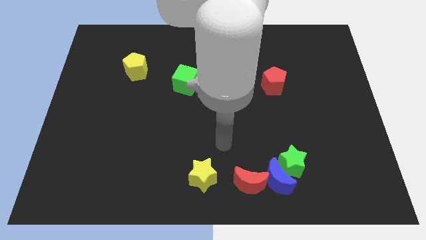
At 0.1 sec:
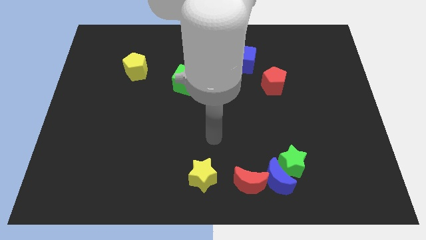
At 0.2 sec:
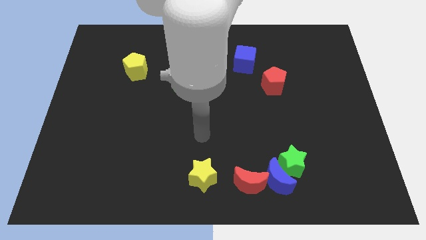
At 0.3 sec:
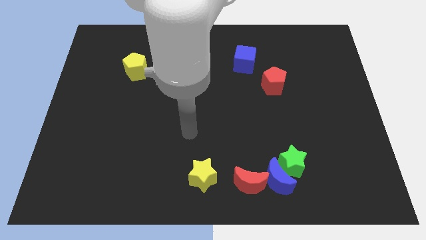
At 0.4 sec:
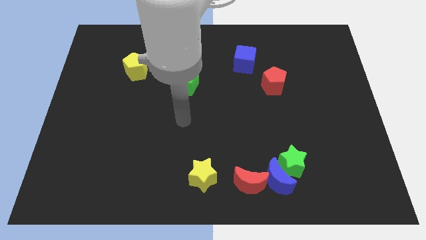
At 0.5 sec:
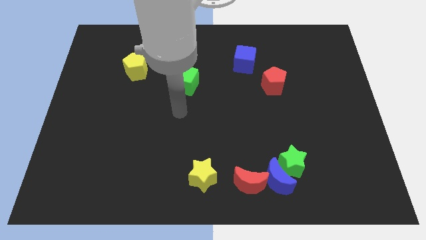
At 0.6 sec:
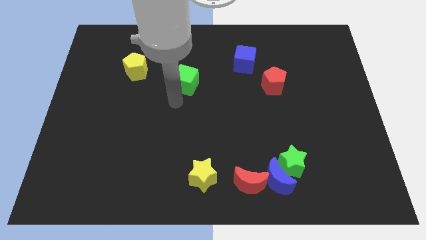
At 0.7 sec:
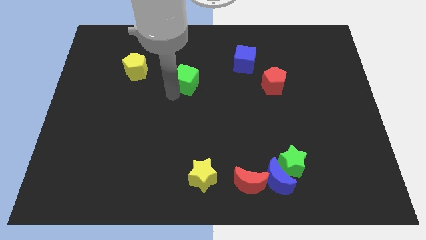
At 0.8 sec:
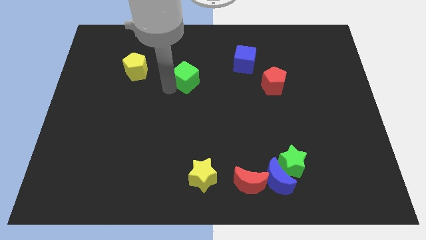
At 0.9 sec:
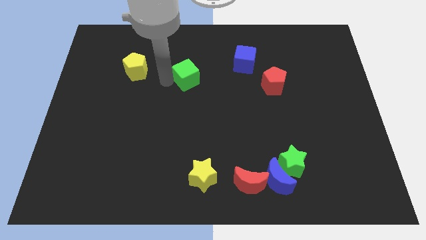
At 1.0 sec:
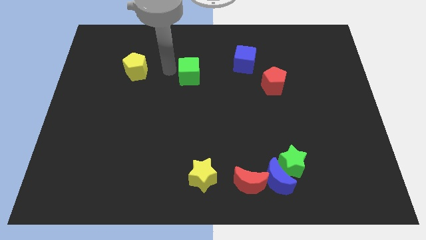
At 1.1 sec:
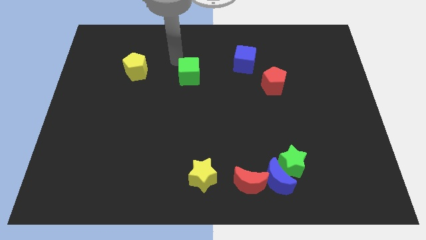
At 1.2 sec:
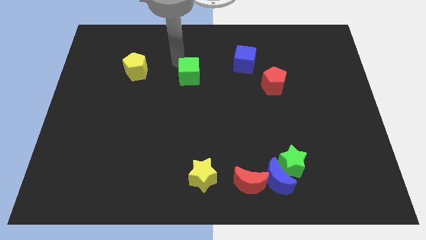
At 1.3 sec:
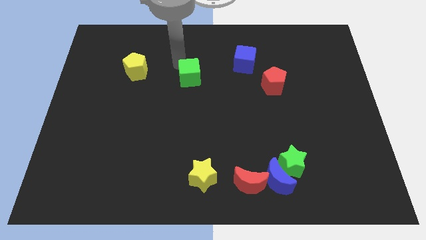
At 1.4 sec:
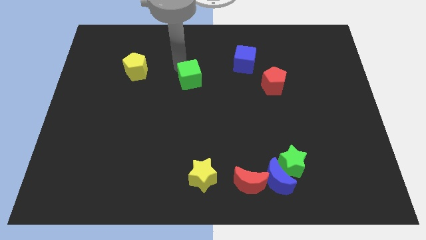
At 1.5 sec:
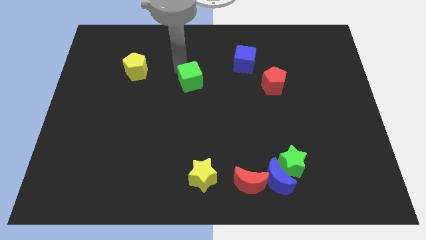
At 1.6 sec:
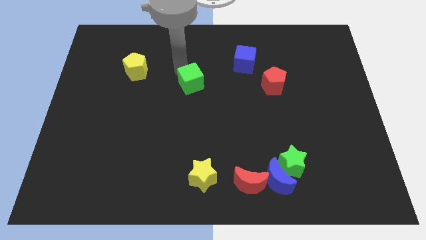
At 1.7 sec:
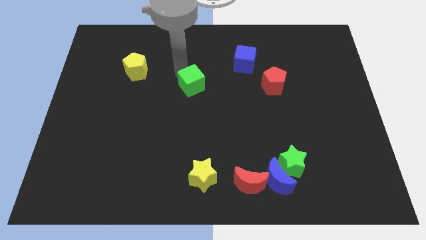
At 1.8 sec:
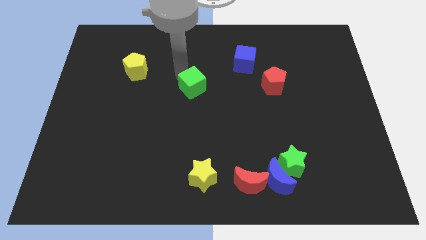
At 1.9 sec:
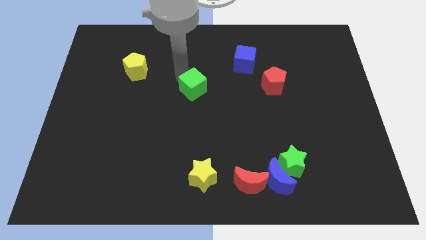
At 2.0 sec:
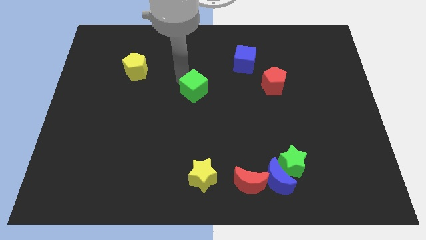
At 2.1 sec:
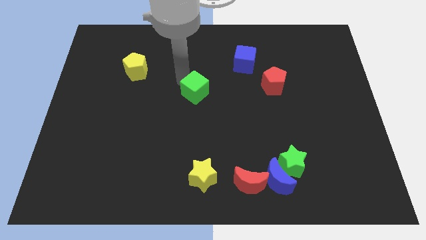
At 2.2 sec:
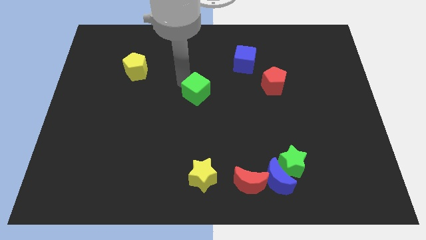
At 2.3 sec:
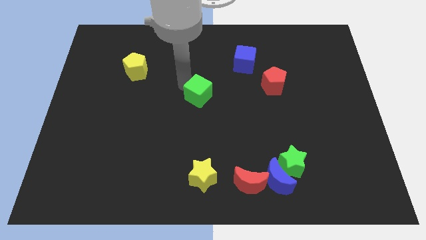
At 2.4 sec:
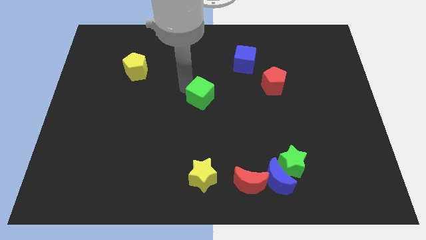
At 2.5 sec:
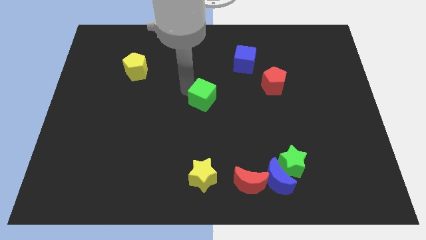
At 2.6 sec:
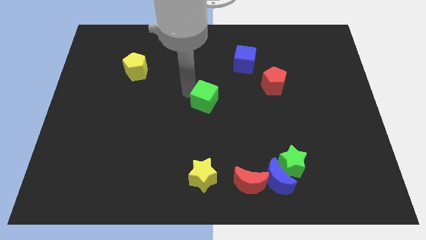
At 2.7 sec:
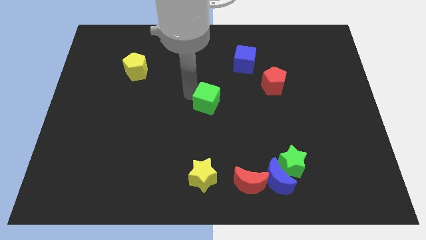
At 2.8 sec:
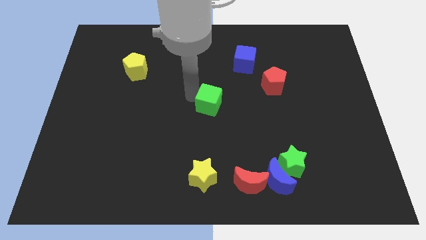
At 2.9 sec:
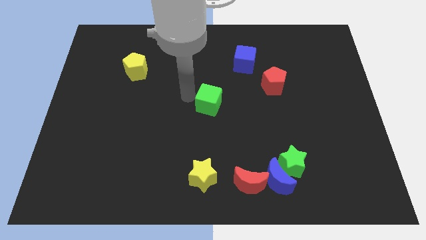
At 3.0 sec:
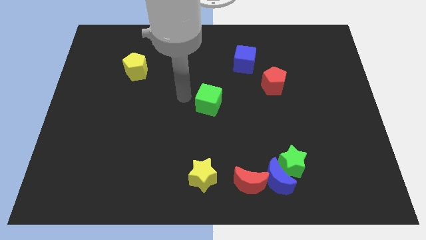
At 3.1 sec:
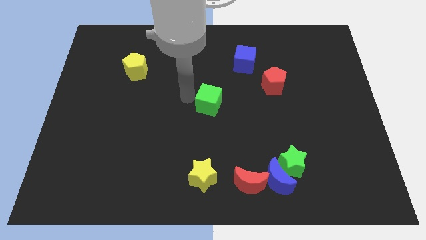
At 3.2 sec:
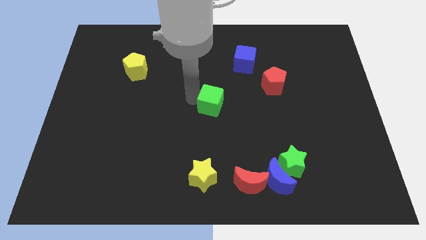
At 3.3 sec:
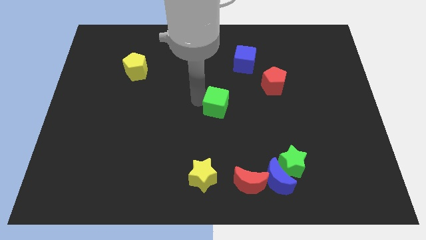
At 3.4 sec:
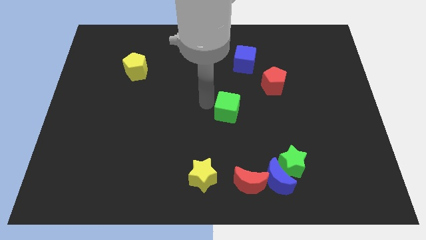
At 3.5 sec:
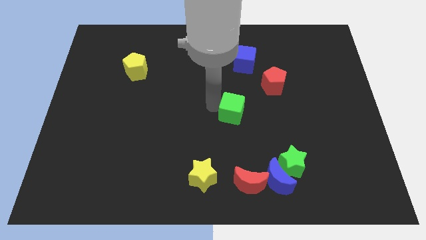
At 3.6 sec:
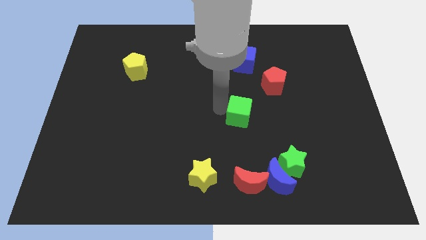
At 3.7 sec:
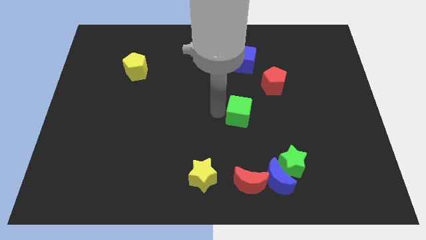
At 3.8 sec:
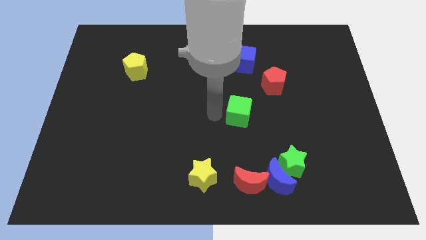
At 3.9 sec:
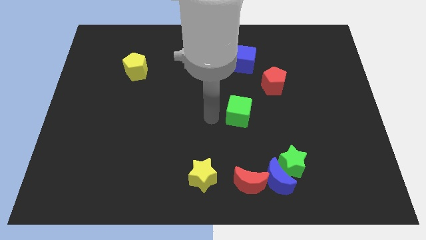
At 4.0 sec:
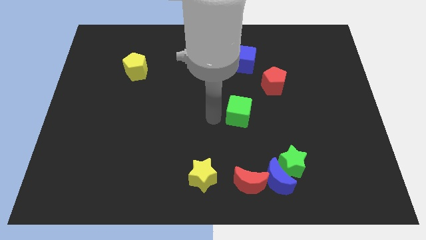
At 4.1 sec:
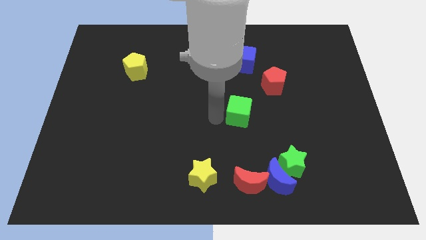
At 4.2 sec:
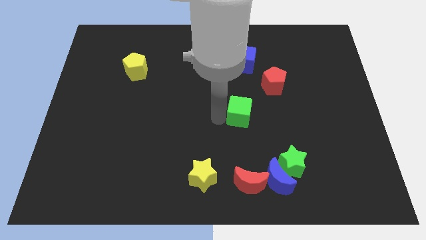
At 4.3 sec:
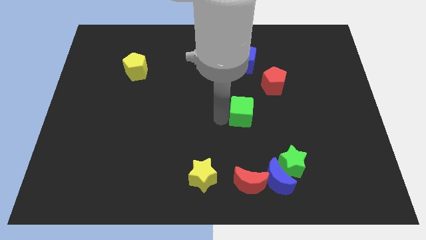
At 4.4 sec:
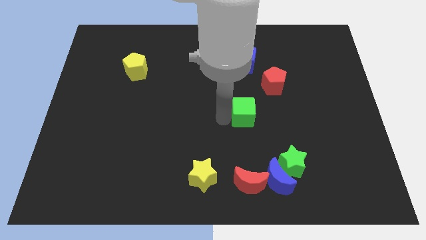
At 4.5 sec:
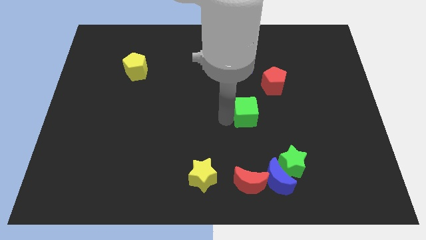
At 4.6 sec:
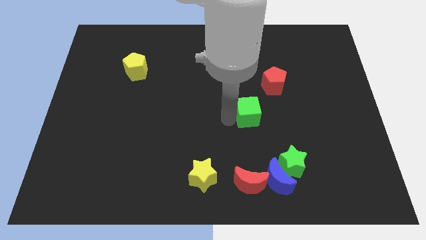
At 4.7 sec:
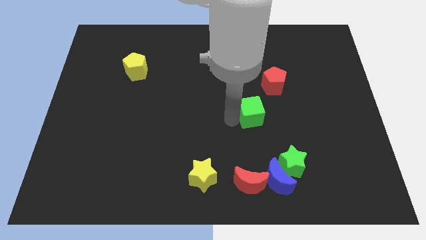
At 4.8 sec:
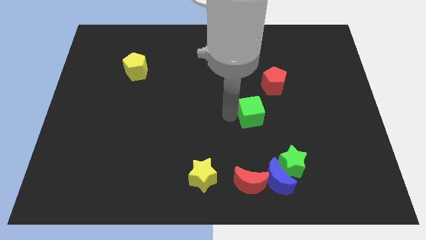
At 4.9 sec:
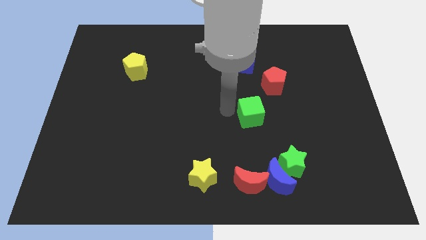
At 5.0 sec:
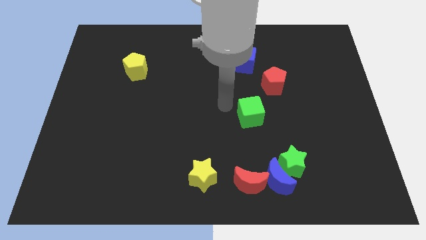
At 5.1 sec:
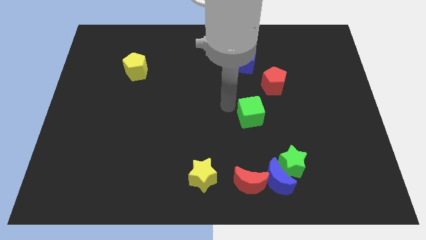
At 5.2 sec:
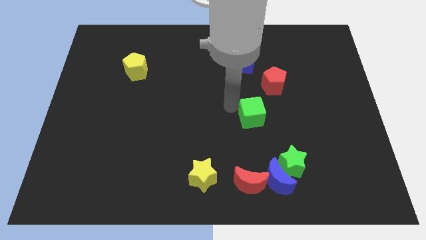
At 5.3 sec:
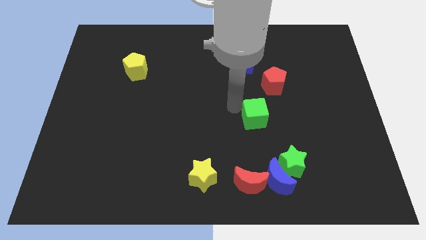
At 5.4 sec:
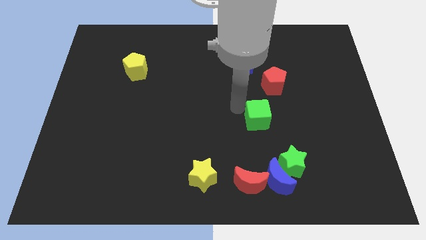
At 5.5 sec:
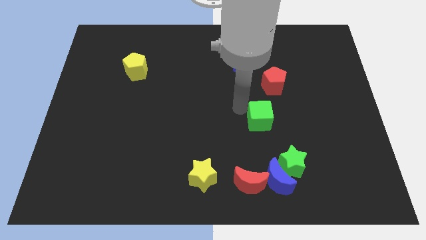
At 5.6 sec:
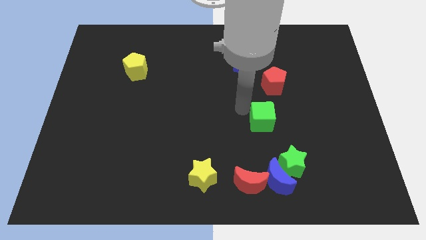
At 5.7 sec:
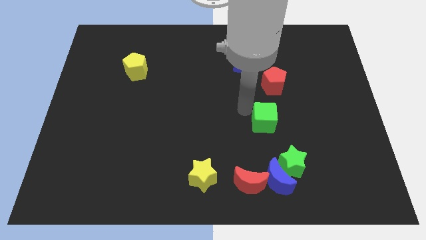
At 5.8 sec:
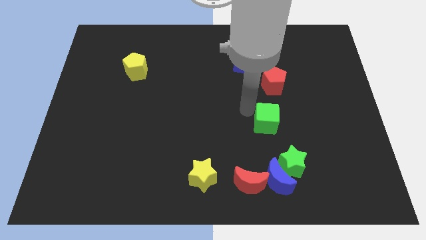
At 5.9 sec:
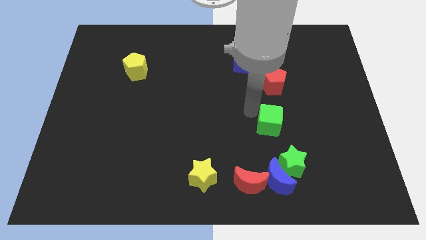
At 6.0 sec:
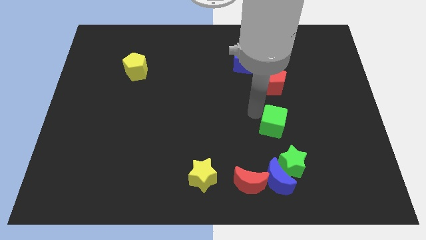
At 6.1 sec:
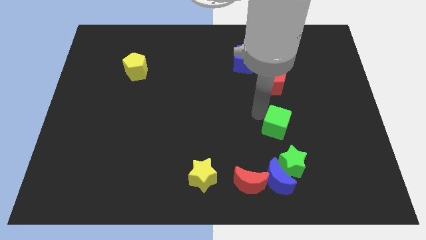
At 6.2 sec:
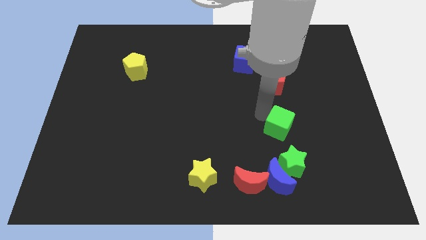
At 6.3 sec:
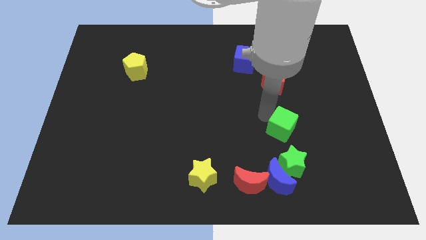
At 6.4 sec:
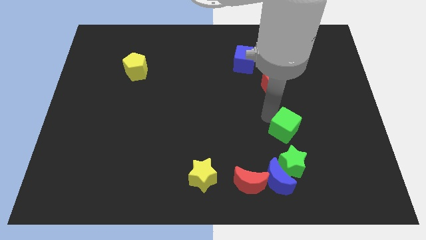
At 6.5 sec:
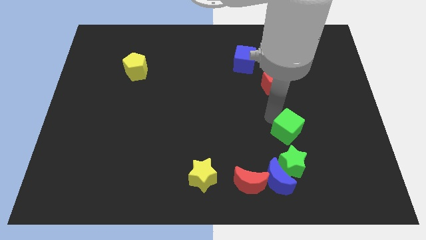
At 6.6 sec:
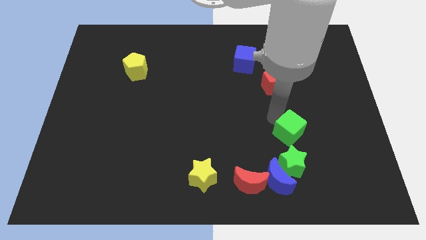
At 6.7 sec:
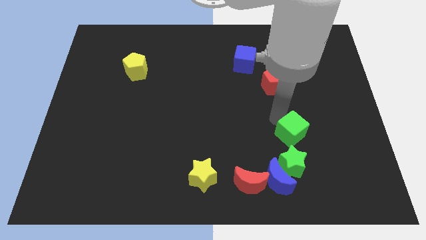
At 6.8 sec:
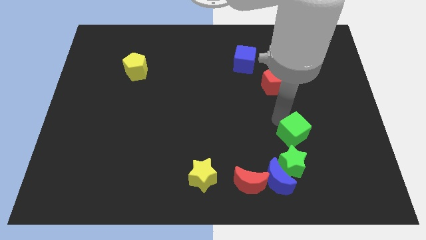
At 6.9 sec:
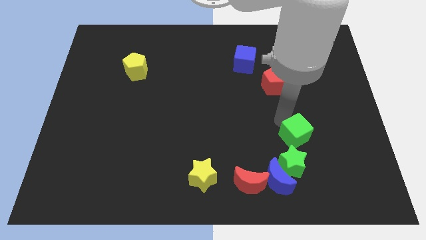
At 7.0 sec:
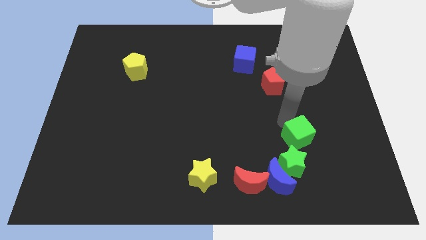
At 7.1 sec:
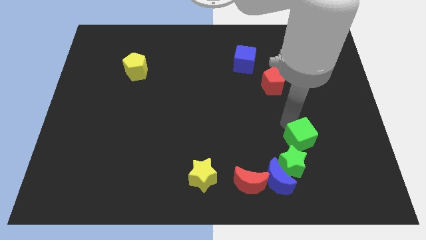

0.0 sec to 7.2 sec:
move the green cube to the top right of the blue moon
